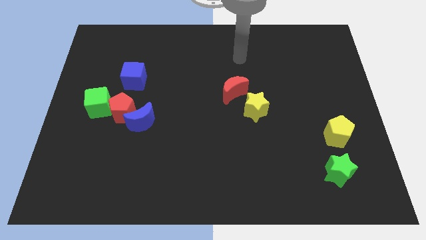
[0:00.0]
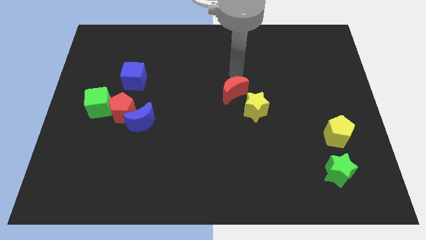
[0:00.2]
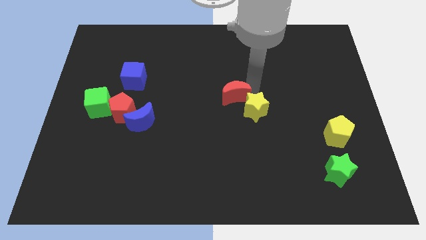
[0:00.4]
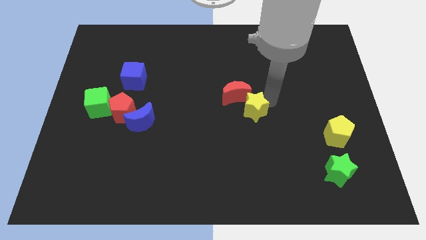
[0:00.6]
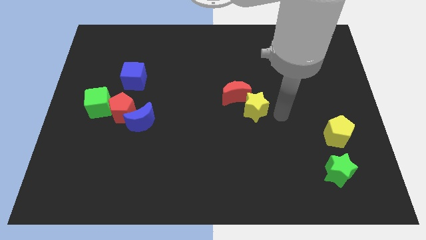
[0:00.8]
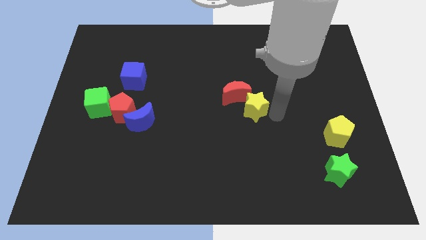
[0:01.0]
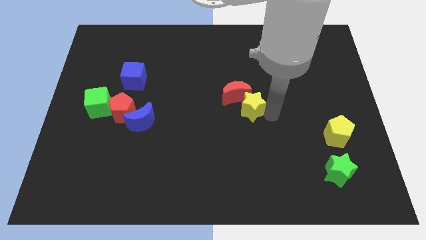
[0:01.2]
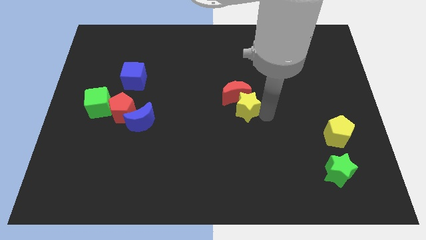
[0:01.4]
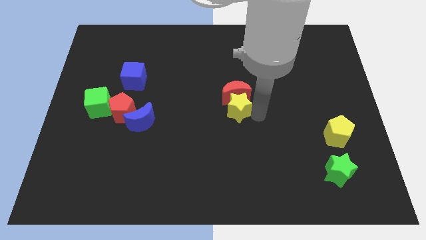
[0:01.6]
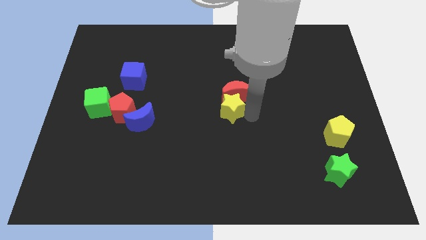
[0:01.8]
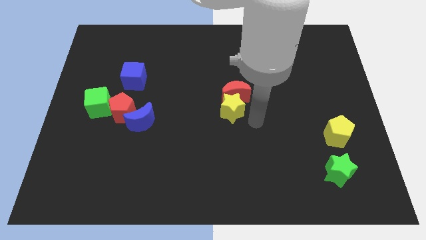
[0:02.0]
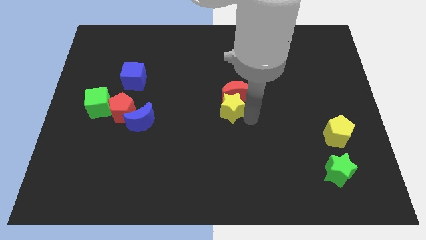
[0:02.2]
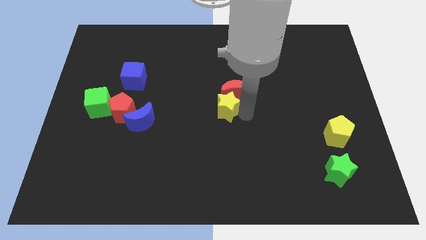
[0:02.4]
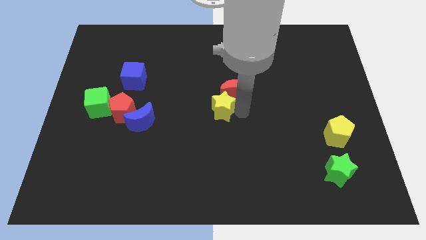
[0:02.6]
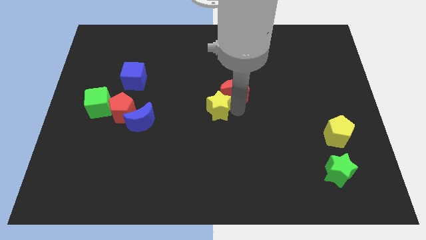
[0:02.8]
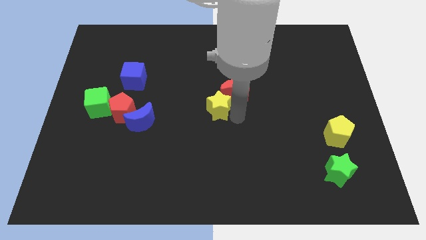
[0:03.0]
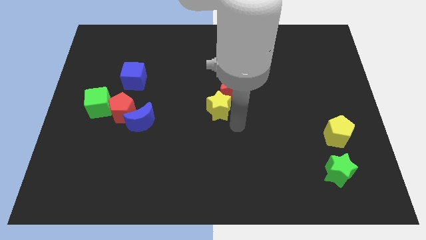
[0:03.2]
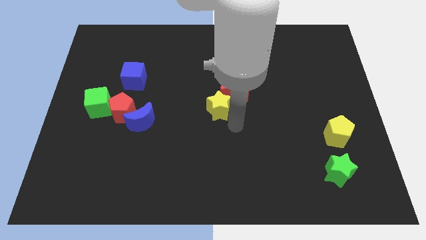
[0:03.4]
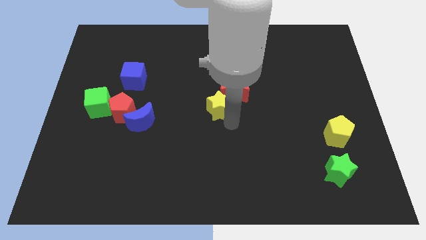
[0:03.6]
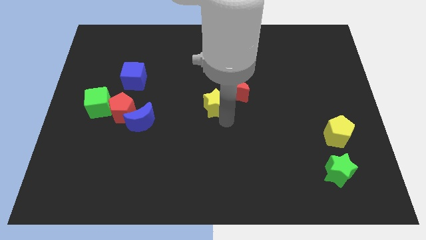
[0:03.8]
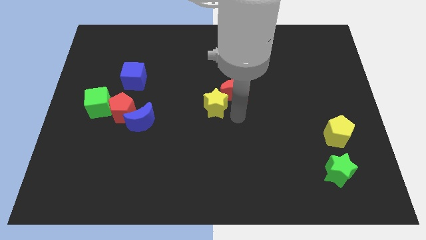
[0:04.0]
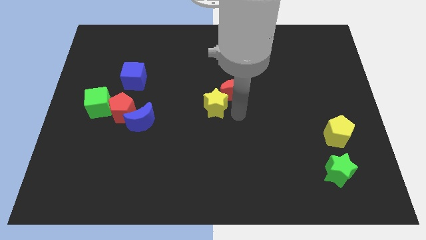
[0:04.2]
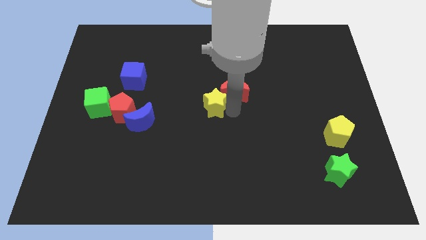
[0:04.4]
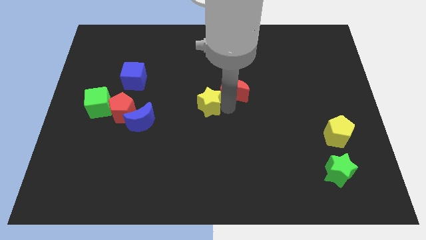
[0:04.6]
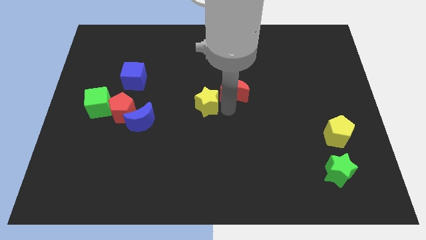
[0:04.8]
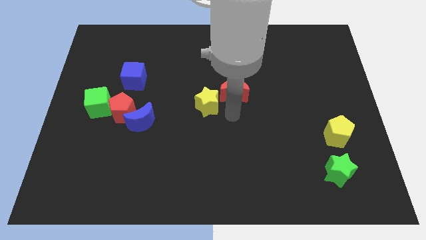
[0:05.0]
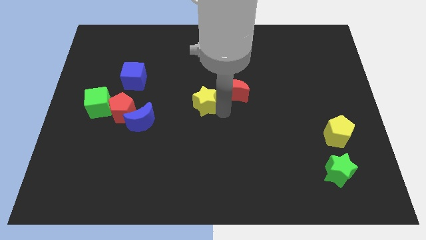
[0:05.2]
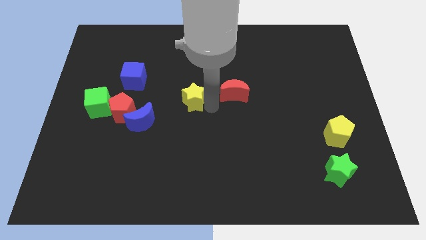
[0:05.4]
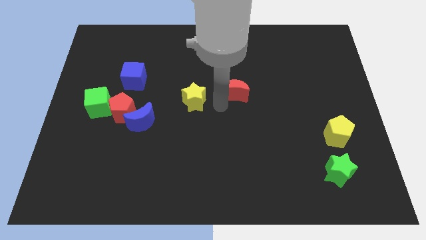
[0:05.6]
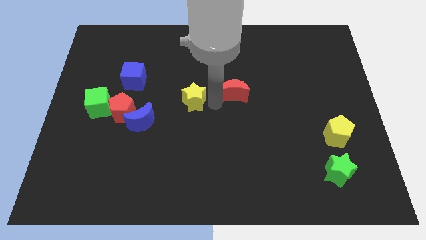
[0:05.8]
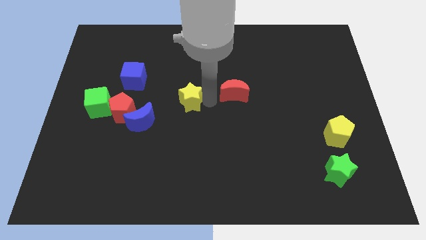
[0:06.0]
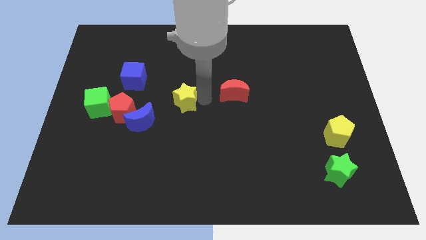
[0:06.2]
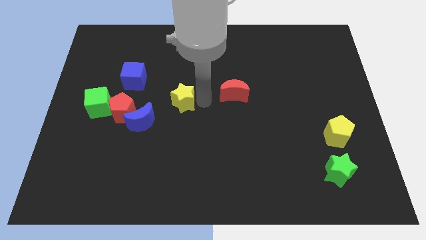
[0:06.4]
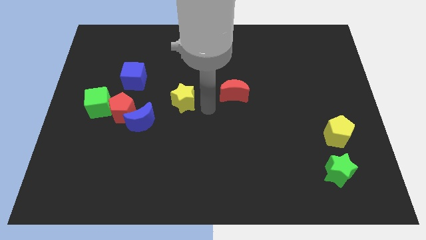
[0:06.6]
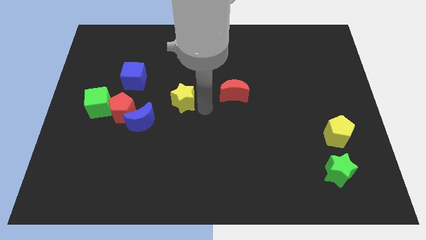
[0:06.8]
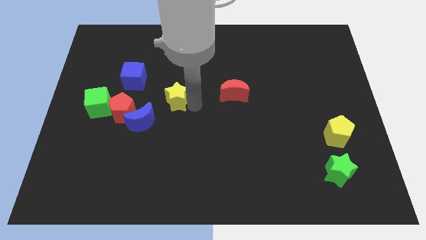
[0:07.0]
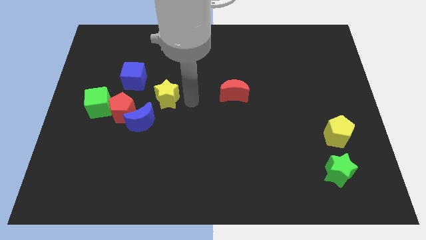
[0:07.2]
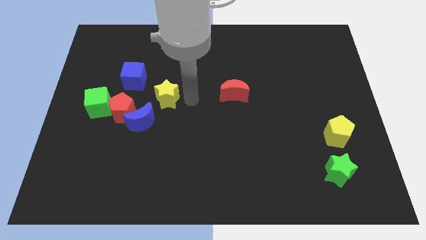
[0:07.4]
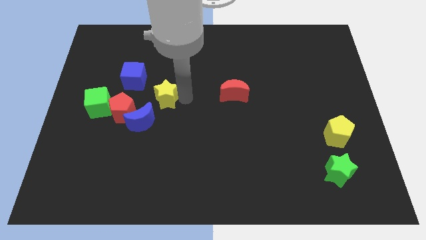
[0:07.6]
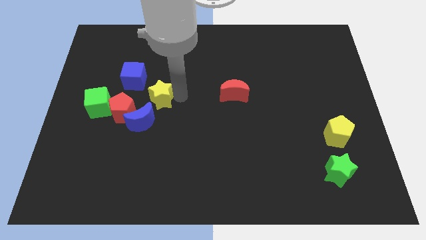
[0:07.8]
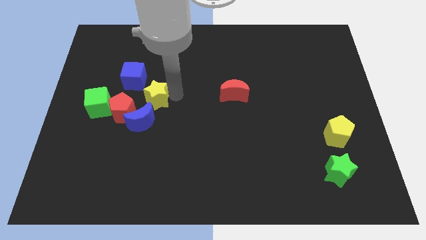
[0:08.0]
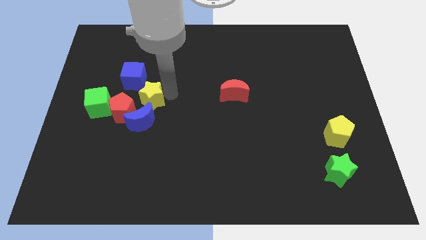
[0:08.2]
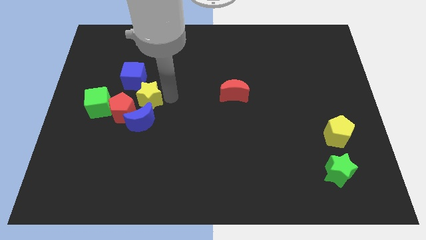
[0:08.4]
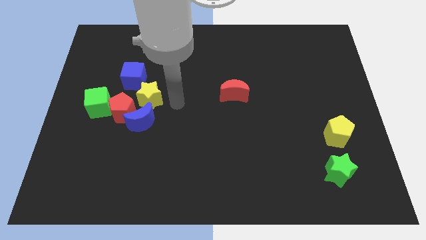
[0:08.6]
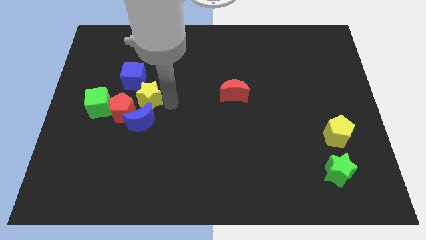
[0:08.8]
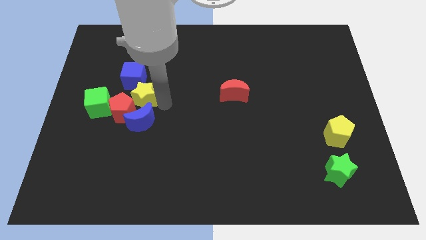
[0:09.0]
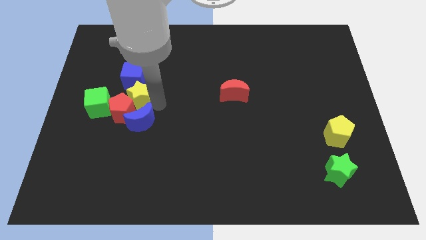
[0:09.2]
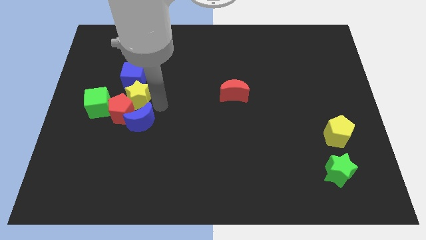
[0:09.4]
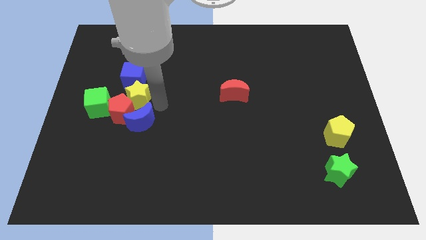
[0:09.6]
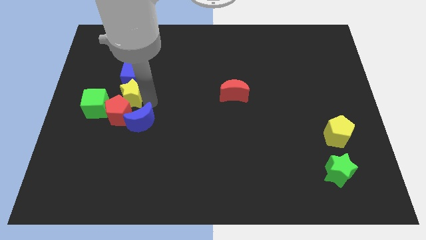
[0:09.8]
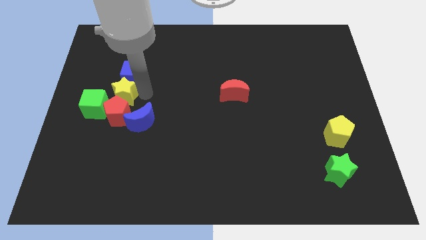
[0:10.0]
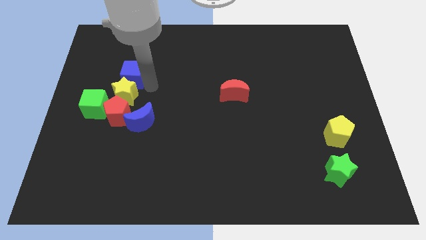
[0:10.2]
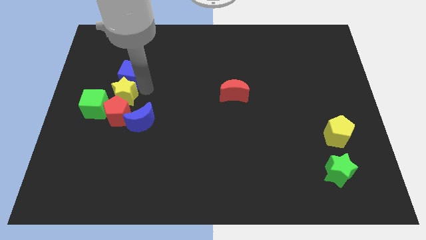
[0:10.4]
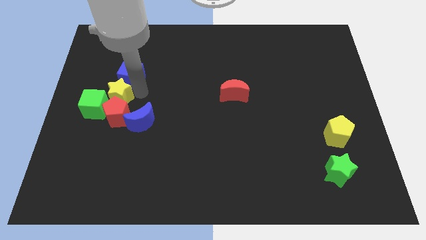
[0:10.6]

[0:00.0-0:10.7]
push the yellow star towards the green cube

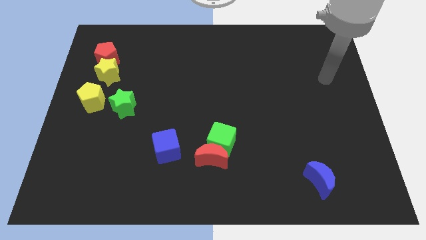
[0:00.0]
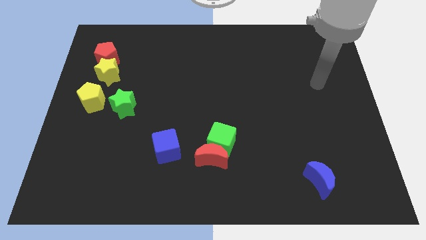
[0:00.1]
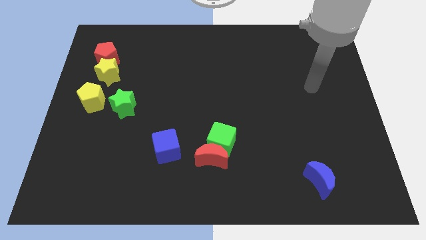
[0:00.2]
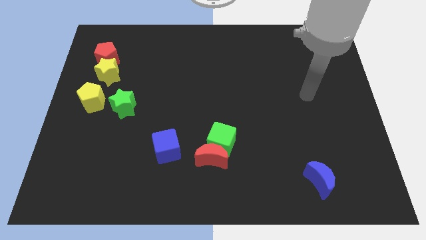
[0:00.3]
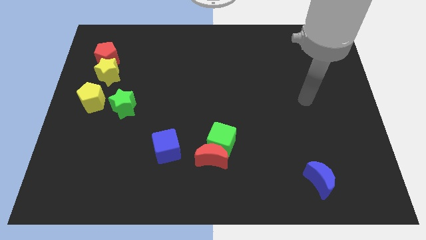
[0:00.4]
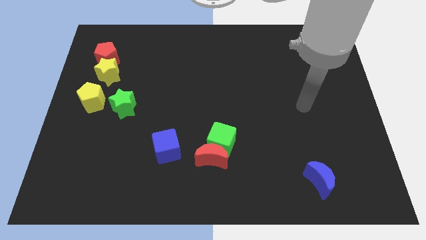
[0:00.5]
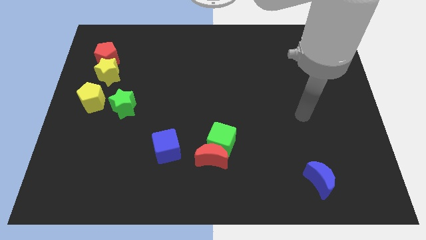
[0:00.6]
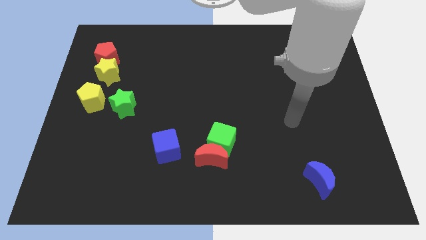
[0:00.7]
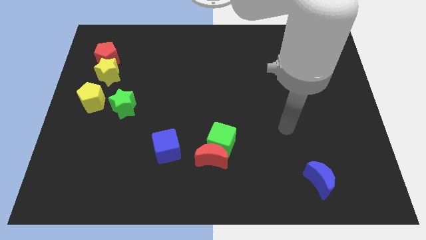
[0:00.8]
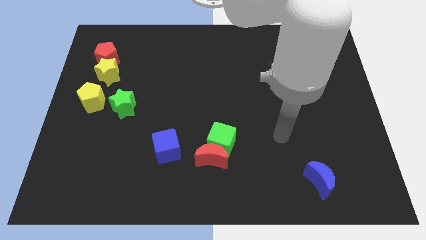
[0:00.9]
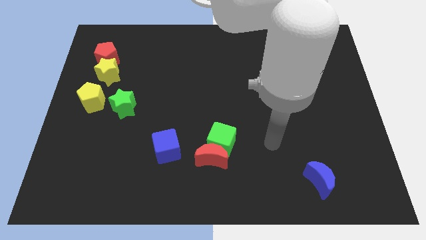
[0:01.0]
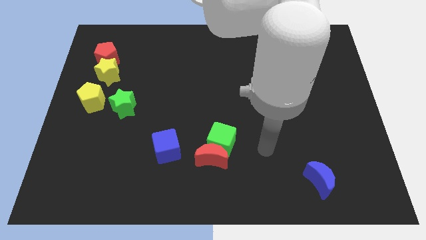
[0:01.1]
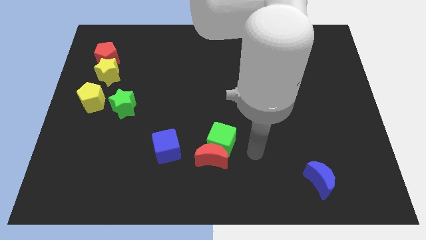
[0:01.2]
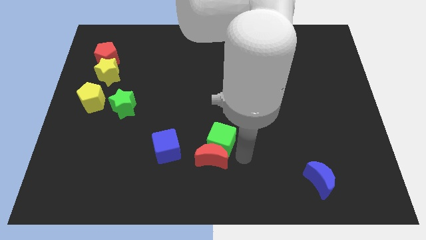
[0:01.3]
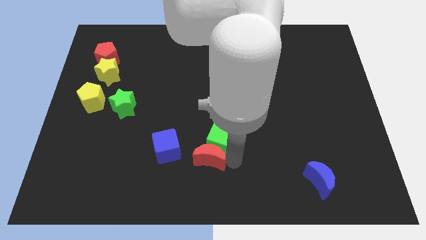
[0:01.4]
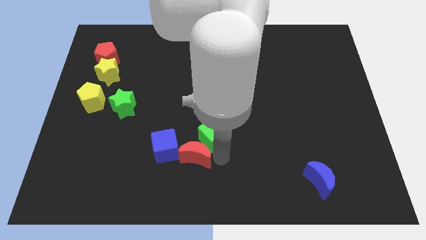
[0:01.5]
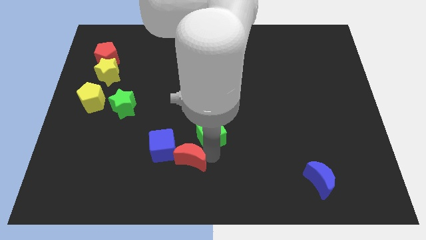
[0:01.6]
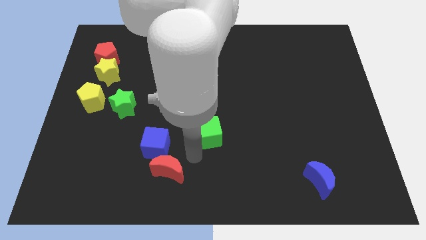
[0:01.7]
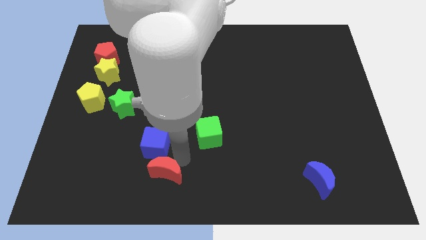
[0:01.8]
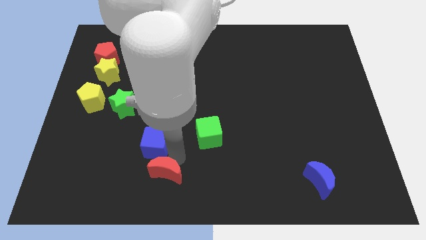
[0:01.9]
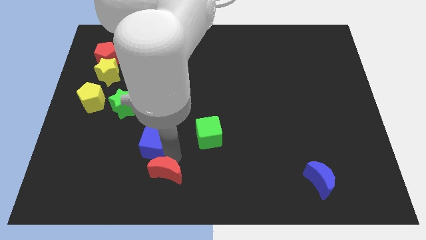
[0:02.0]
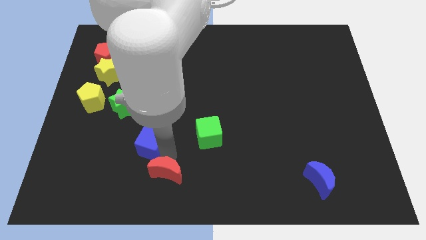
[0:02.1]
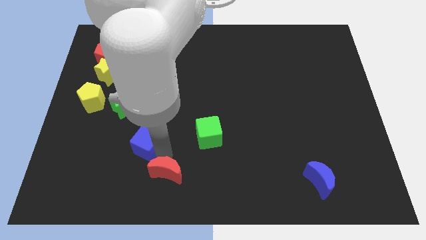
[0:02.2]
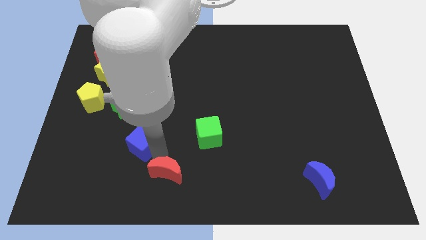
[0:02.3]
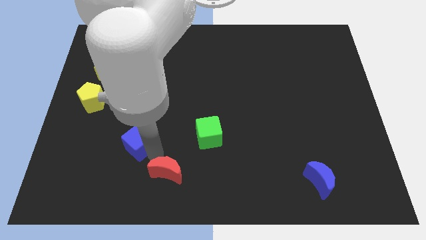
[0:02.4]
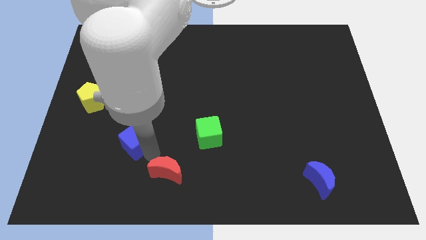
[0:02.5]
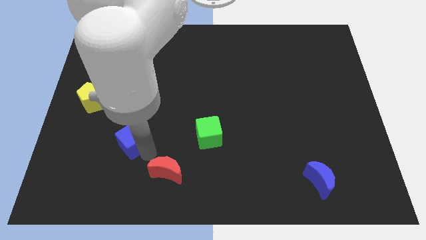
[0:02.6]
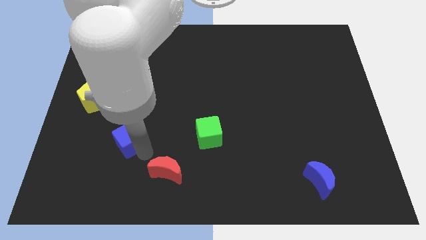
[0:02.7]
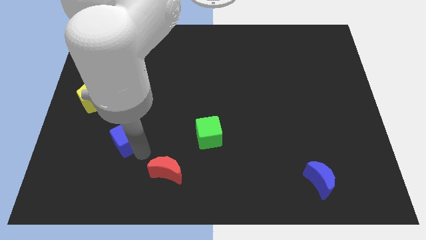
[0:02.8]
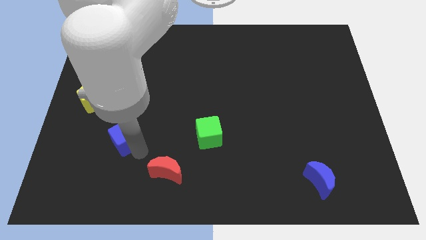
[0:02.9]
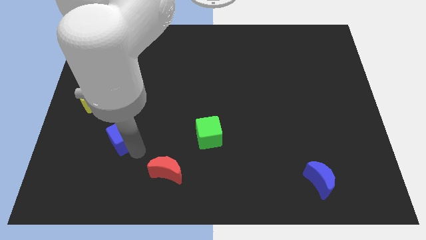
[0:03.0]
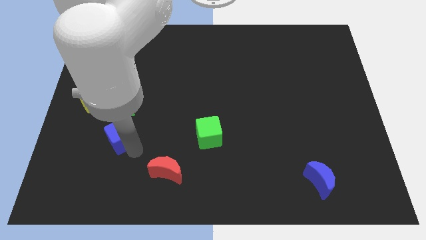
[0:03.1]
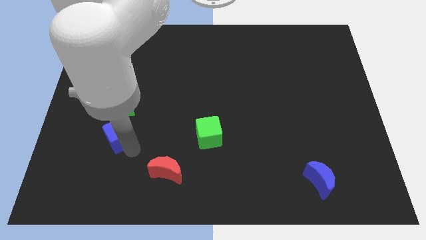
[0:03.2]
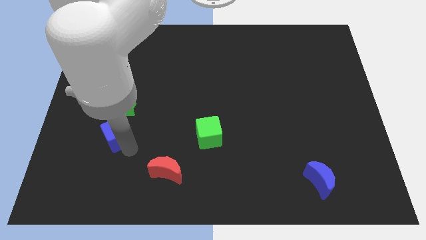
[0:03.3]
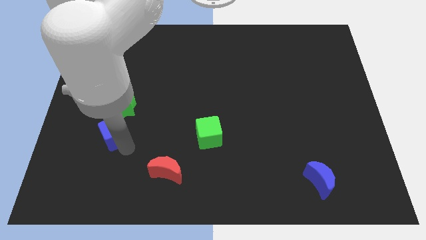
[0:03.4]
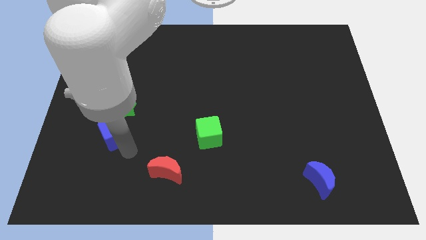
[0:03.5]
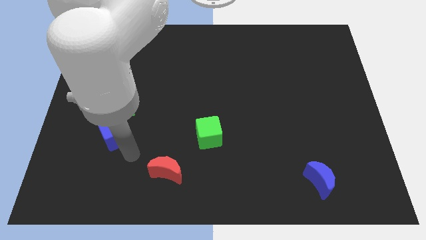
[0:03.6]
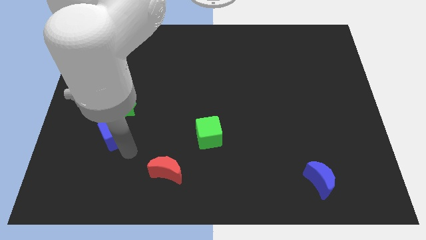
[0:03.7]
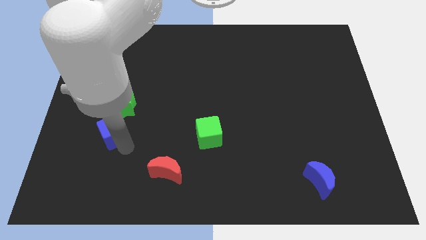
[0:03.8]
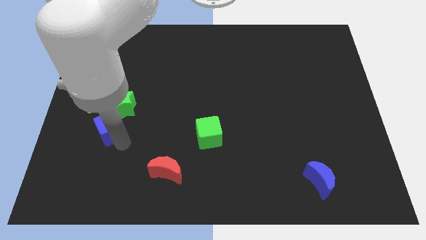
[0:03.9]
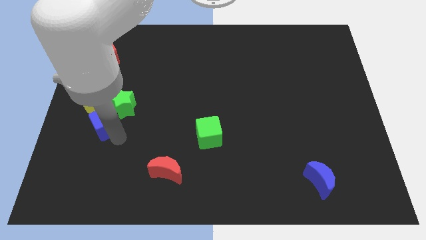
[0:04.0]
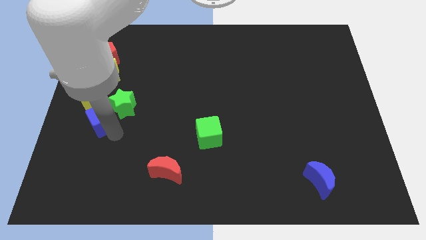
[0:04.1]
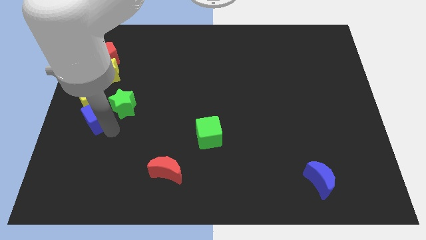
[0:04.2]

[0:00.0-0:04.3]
push the blue cube towards the yellow pentagon
